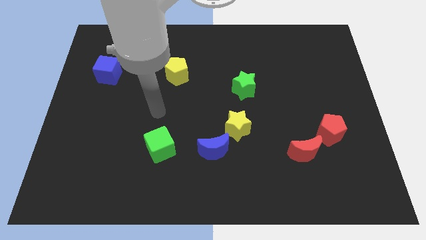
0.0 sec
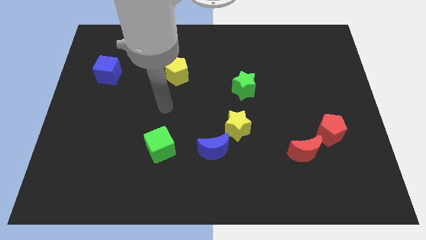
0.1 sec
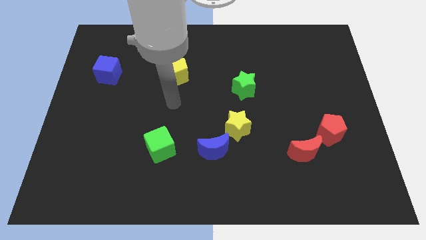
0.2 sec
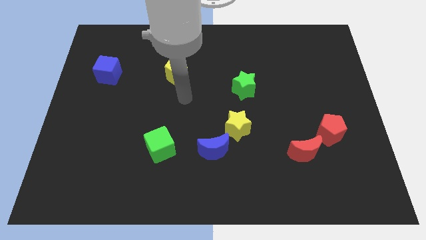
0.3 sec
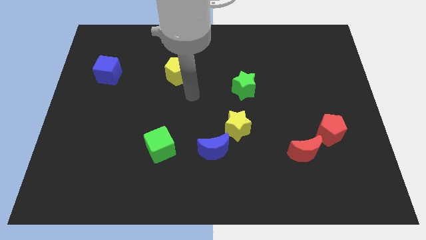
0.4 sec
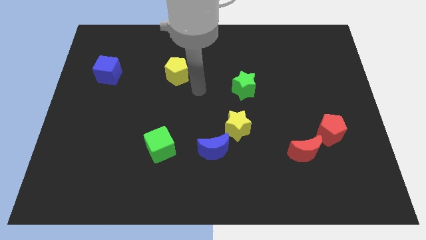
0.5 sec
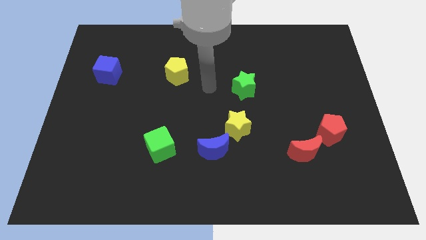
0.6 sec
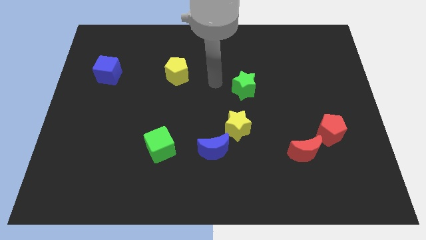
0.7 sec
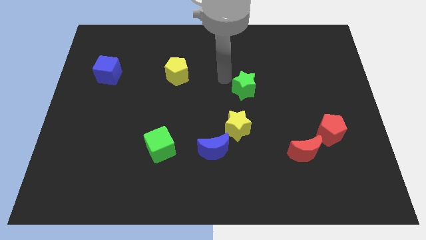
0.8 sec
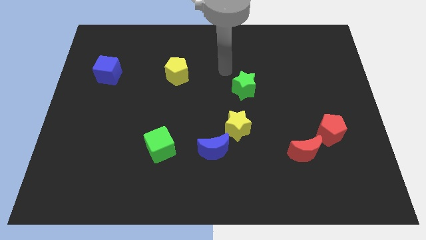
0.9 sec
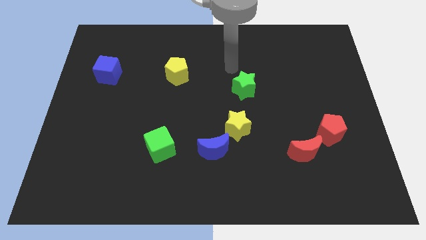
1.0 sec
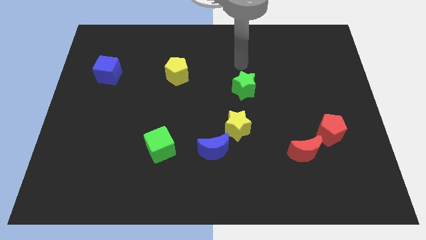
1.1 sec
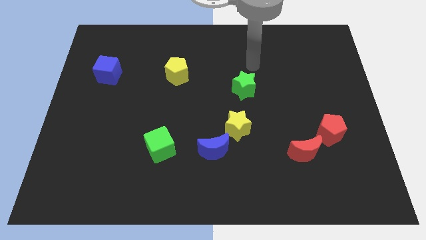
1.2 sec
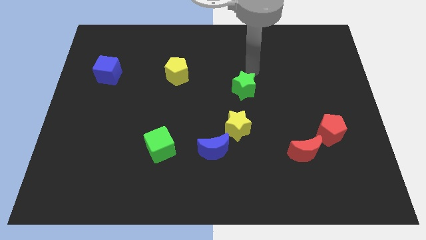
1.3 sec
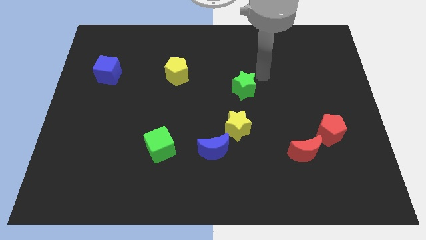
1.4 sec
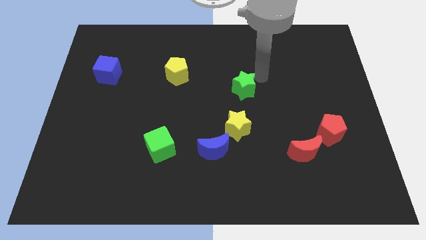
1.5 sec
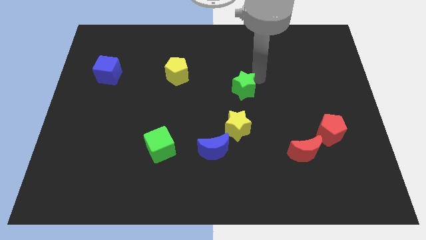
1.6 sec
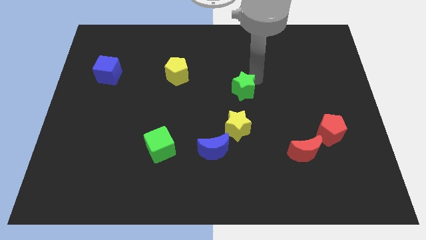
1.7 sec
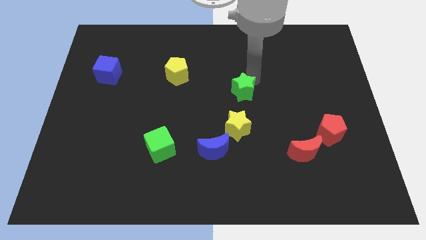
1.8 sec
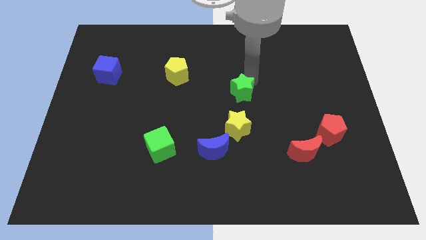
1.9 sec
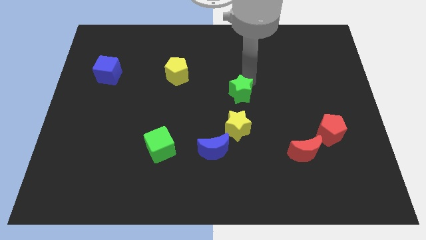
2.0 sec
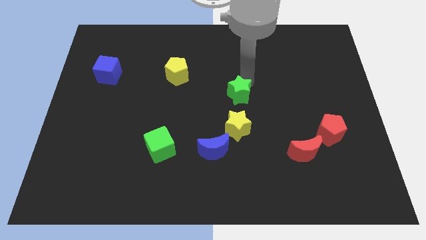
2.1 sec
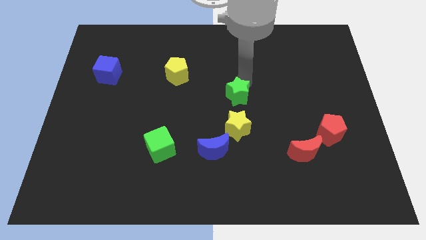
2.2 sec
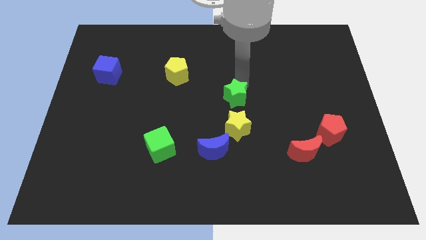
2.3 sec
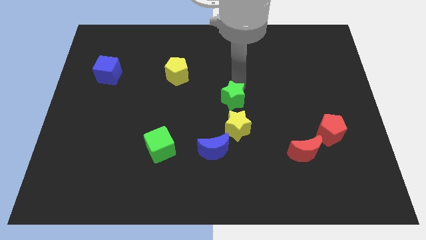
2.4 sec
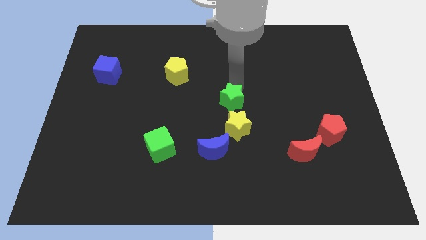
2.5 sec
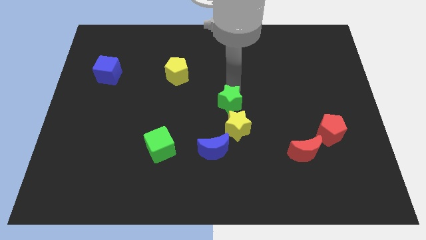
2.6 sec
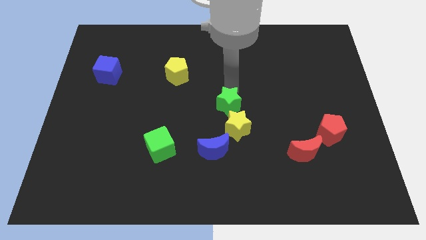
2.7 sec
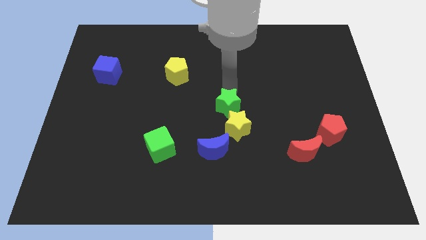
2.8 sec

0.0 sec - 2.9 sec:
move the green star somewhat downwards and then left

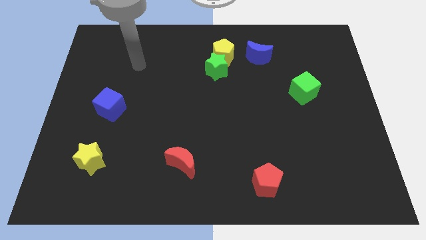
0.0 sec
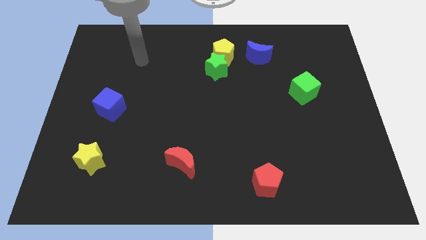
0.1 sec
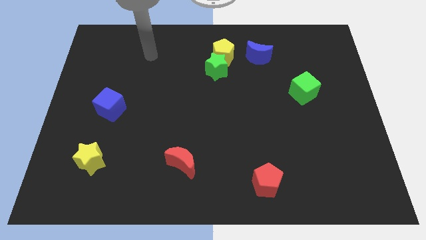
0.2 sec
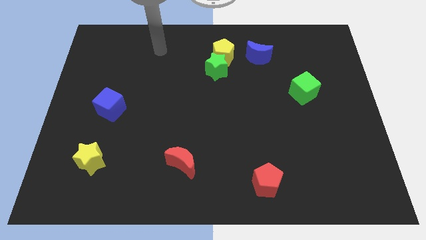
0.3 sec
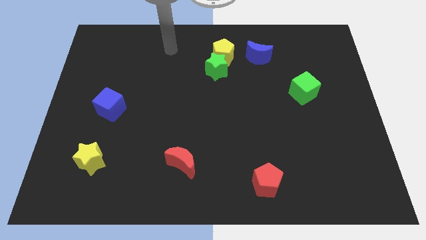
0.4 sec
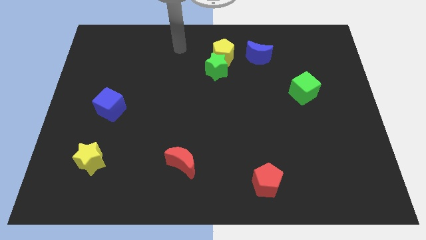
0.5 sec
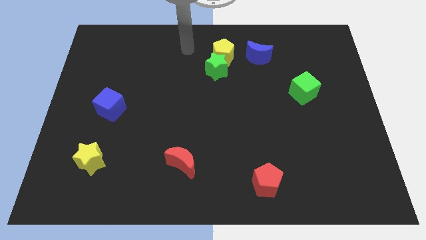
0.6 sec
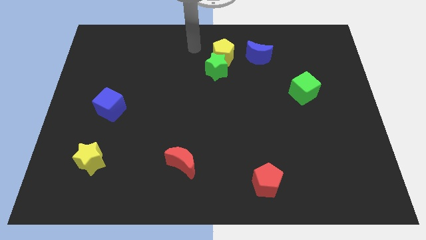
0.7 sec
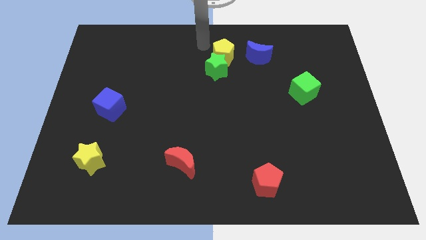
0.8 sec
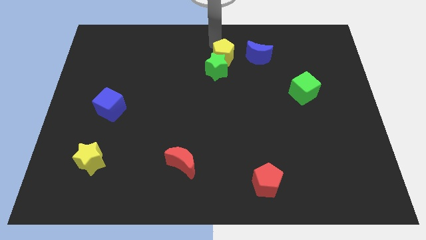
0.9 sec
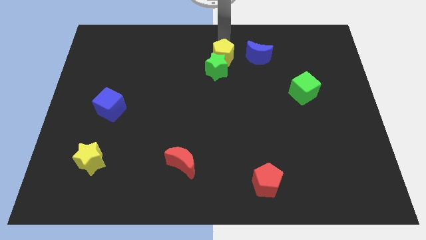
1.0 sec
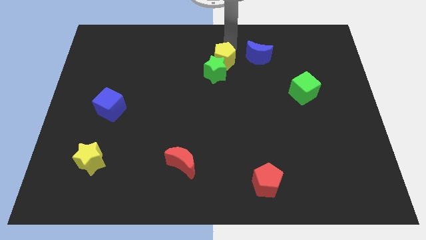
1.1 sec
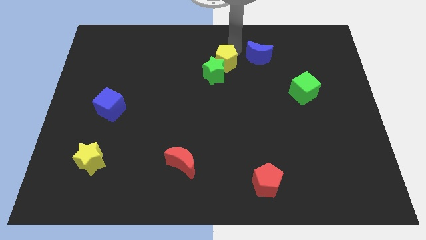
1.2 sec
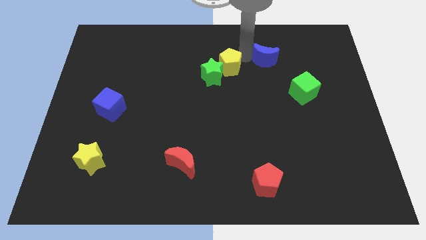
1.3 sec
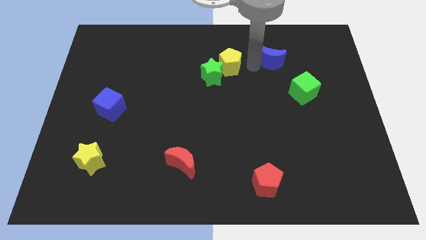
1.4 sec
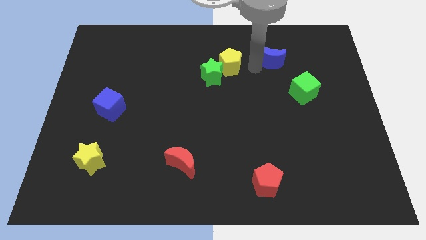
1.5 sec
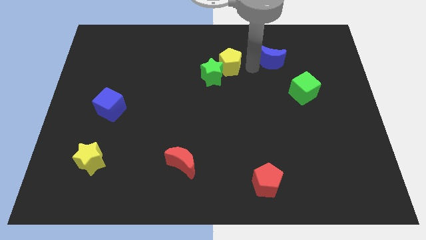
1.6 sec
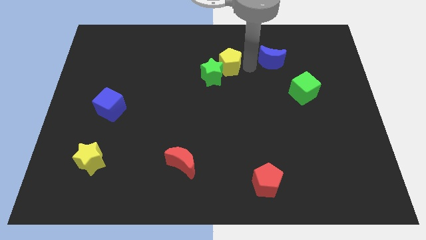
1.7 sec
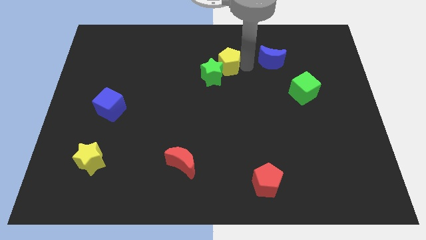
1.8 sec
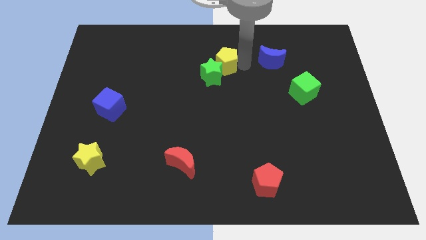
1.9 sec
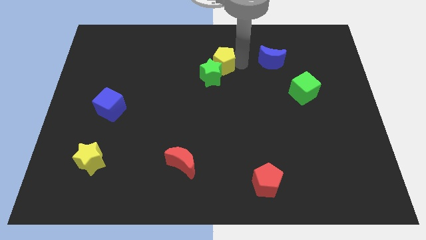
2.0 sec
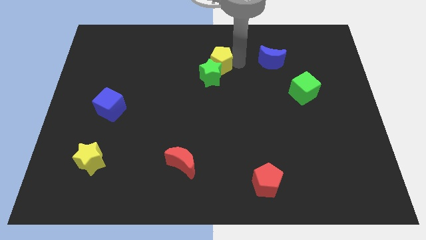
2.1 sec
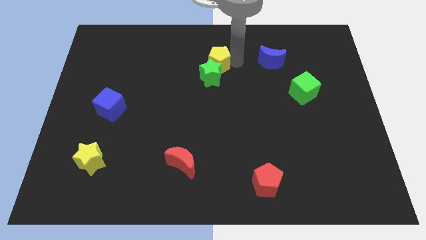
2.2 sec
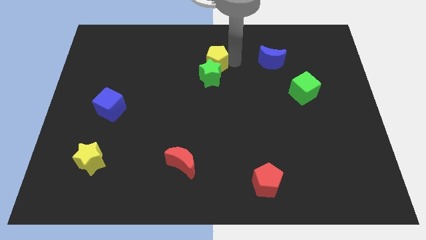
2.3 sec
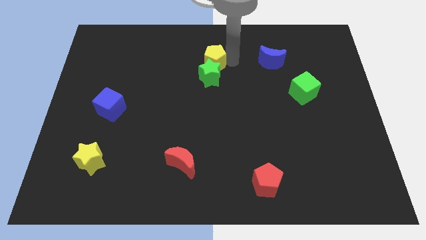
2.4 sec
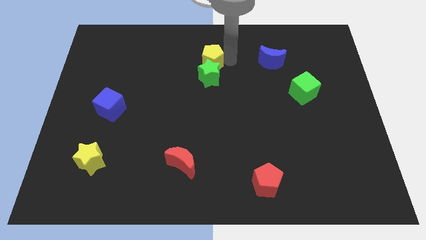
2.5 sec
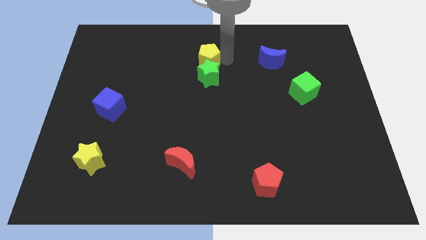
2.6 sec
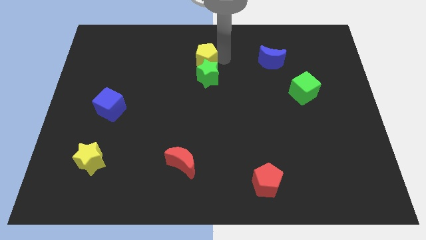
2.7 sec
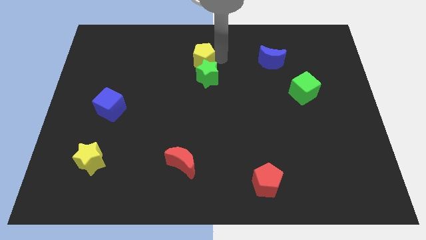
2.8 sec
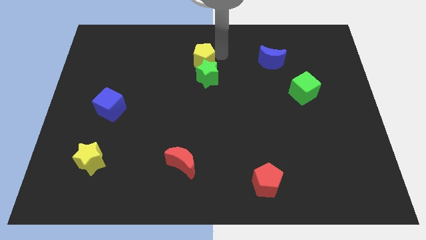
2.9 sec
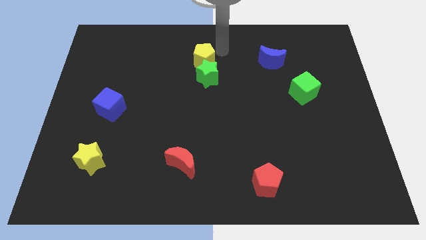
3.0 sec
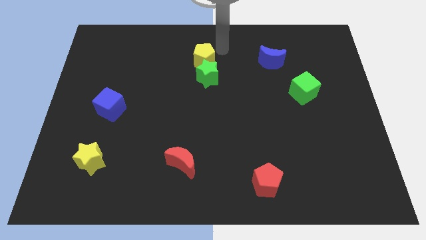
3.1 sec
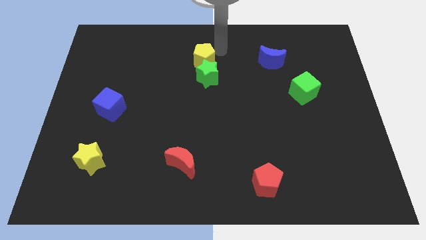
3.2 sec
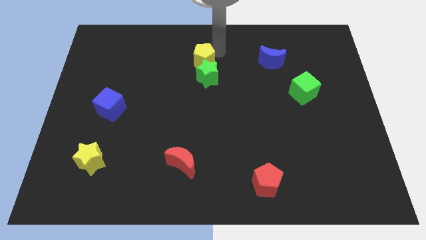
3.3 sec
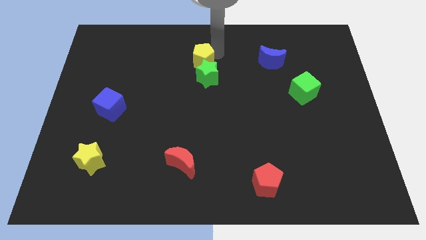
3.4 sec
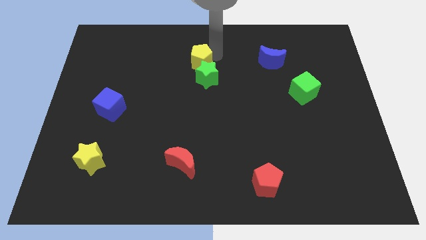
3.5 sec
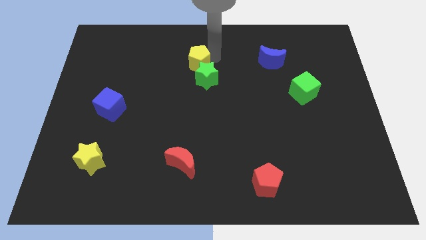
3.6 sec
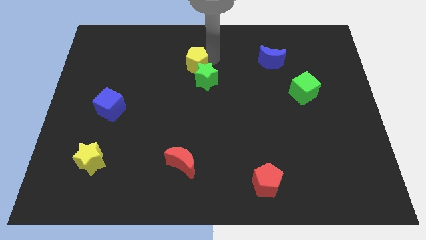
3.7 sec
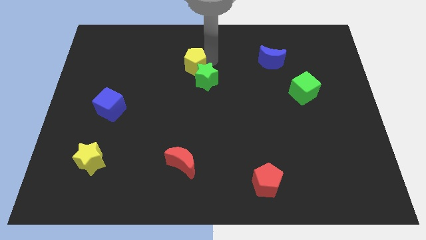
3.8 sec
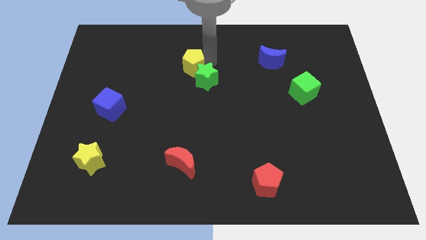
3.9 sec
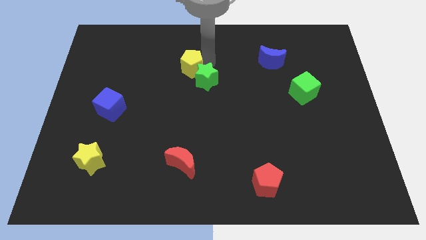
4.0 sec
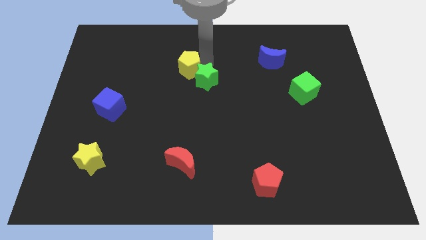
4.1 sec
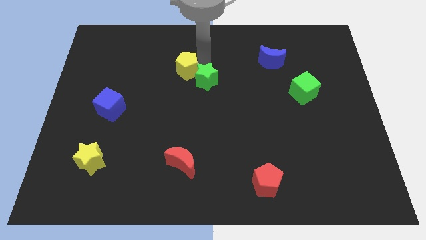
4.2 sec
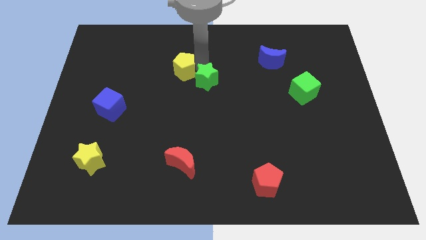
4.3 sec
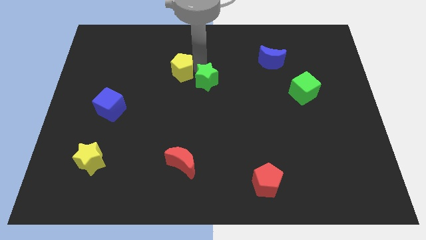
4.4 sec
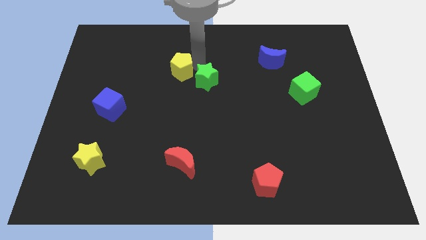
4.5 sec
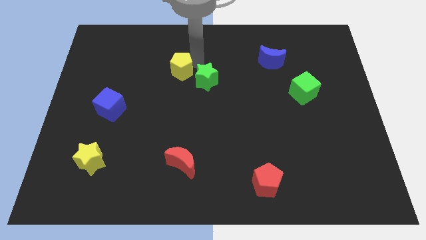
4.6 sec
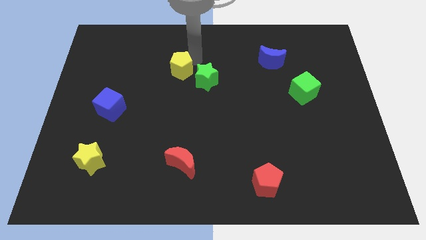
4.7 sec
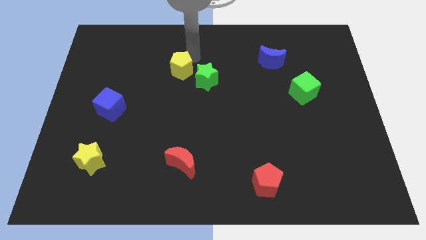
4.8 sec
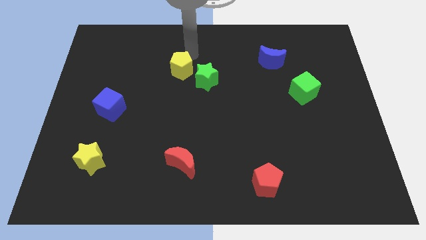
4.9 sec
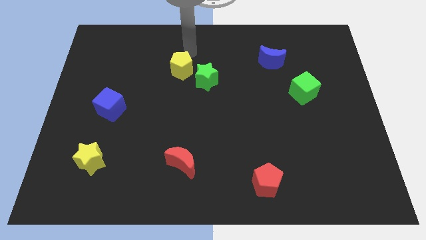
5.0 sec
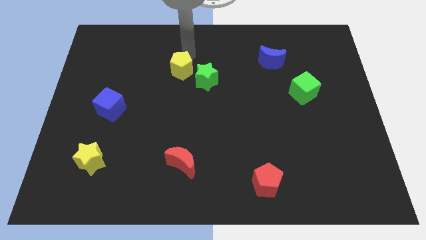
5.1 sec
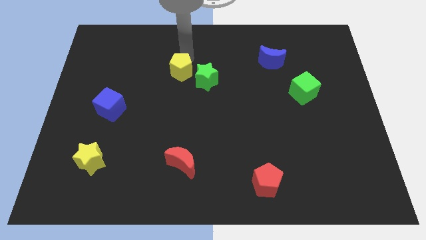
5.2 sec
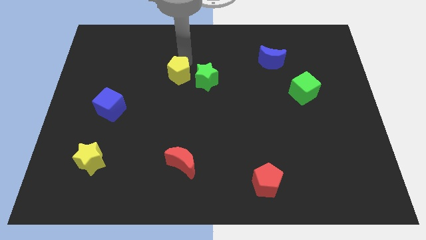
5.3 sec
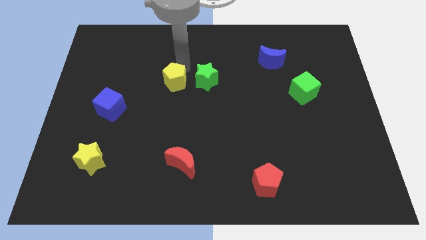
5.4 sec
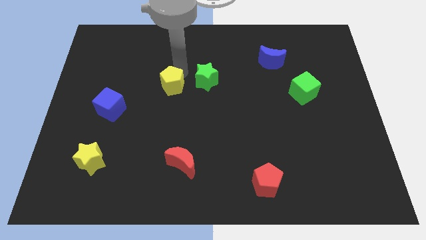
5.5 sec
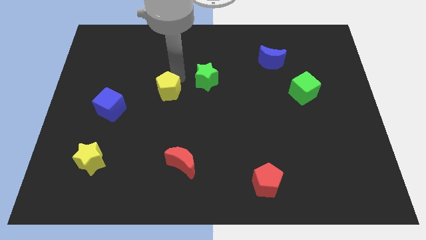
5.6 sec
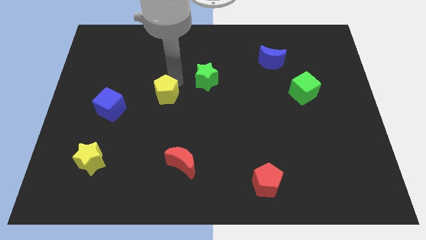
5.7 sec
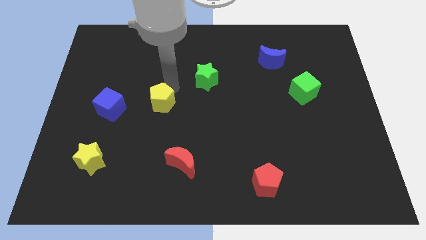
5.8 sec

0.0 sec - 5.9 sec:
slide the yellow pentagon downwards and then left
